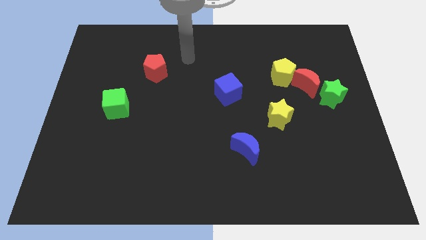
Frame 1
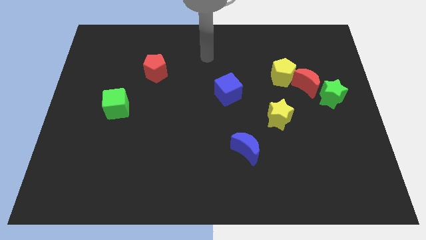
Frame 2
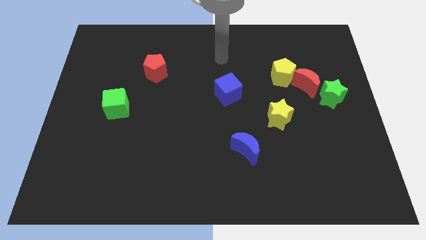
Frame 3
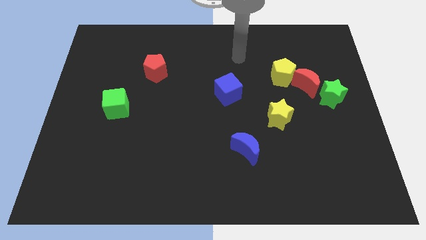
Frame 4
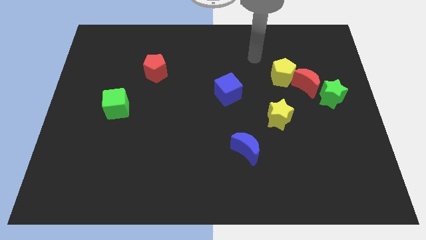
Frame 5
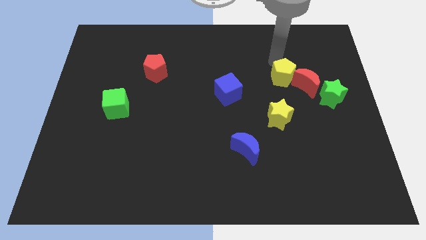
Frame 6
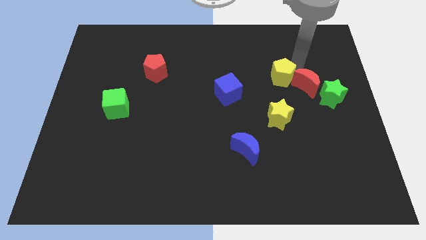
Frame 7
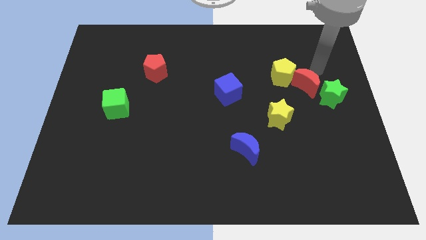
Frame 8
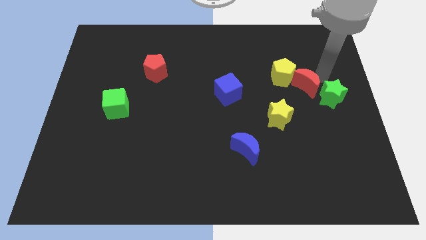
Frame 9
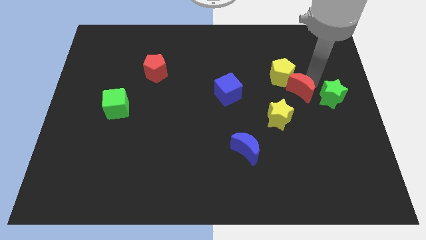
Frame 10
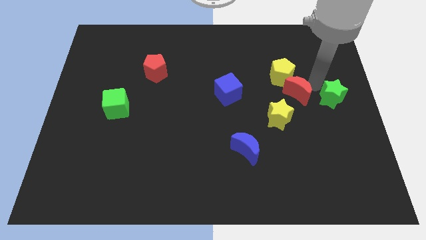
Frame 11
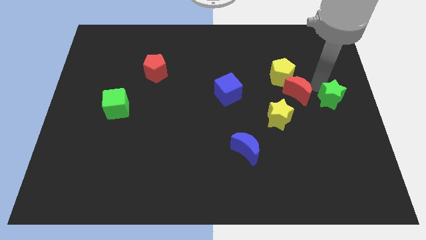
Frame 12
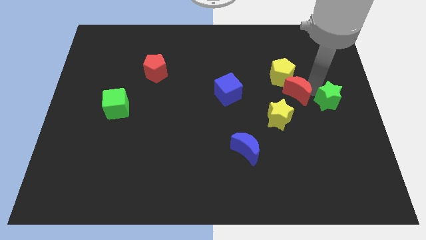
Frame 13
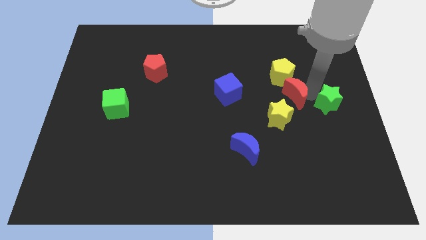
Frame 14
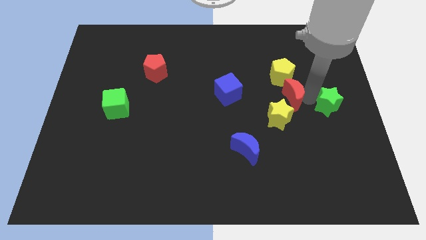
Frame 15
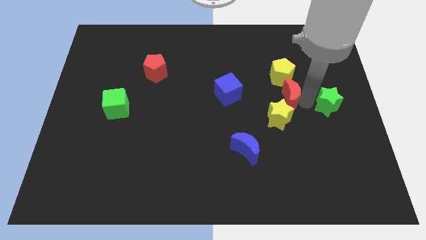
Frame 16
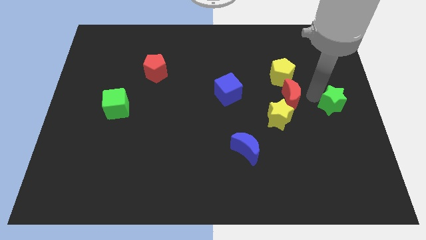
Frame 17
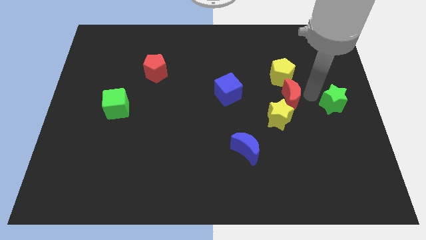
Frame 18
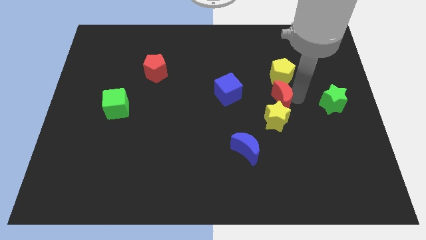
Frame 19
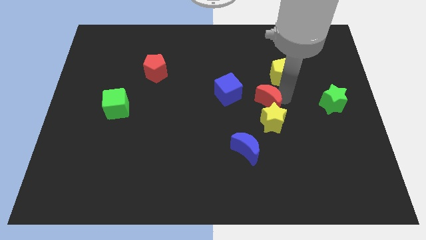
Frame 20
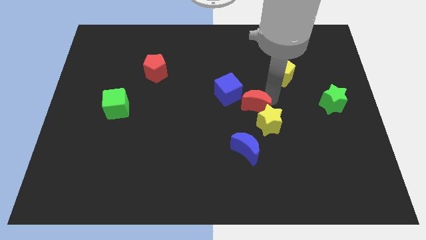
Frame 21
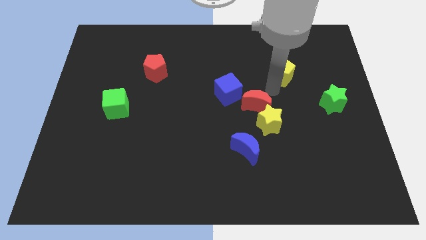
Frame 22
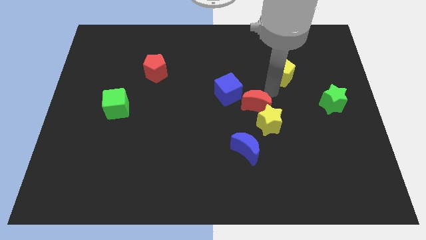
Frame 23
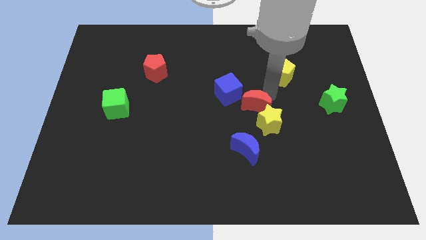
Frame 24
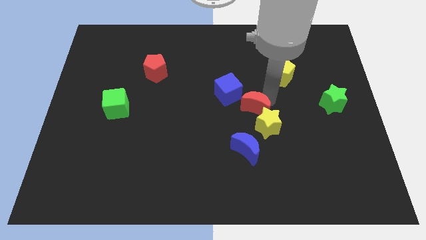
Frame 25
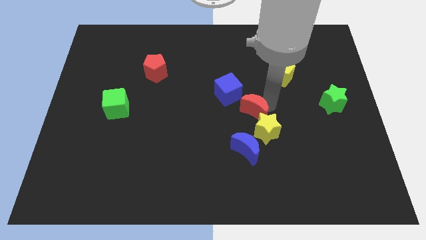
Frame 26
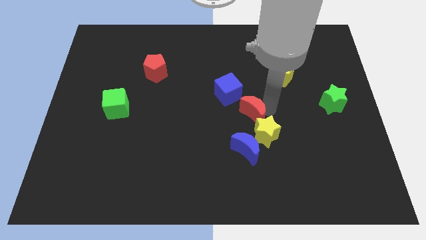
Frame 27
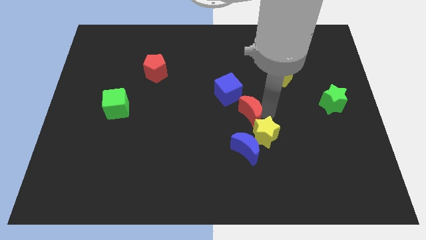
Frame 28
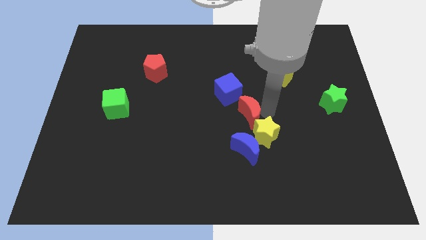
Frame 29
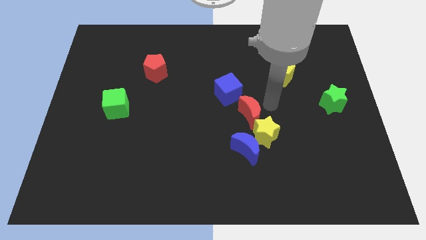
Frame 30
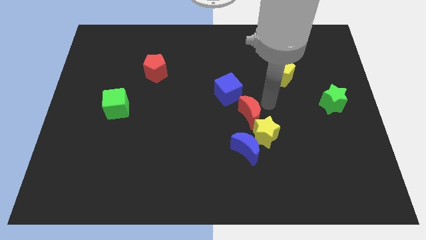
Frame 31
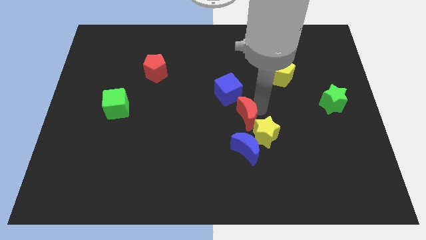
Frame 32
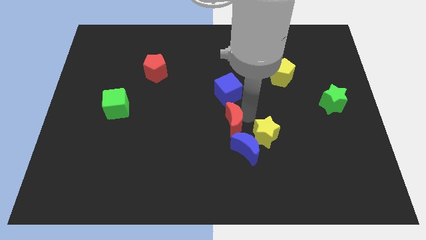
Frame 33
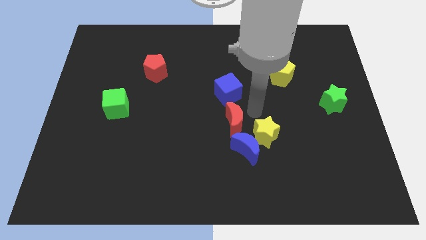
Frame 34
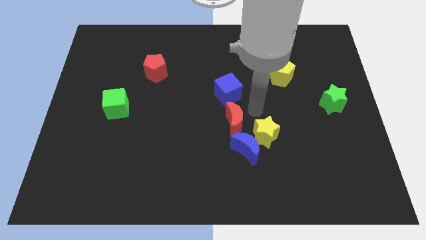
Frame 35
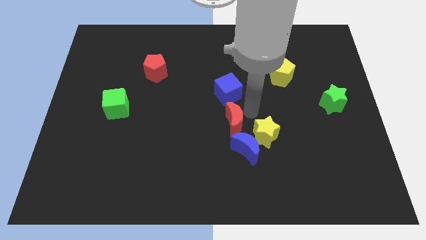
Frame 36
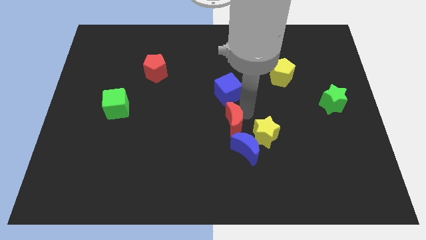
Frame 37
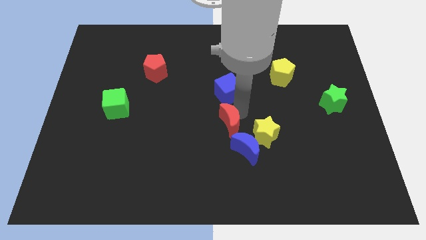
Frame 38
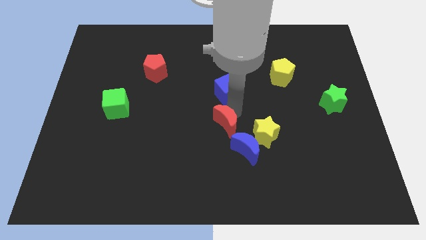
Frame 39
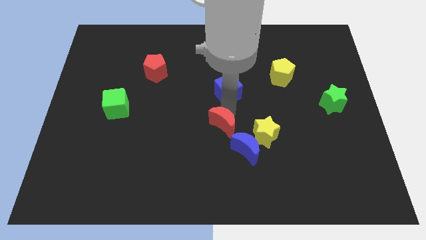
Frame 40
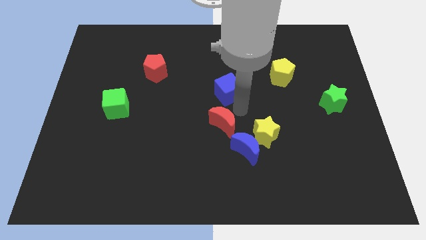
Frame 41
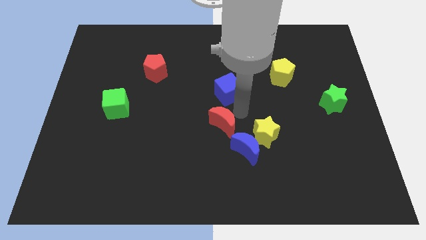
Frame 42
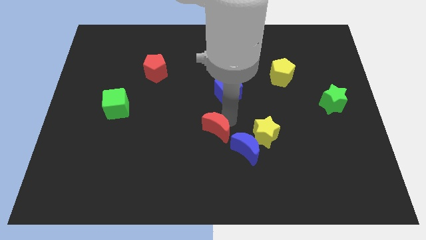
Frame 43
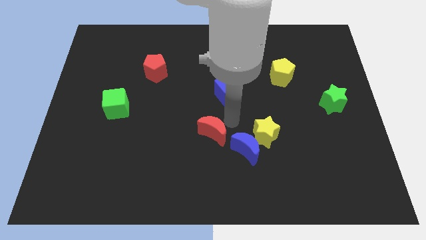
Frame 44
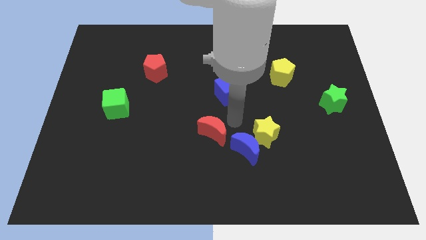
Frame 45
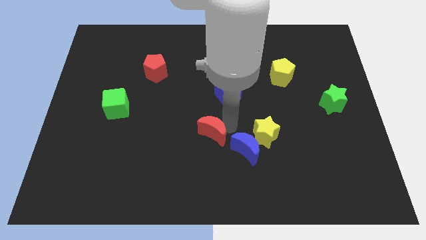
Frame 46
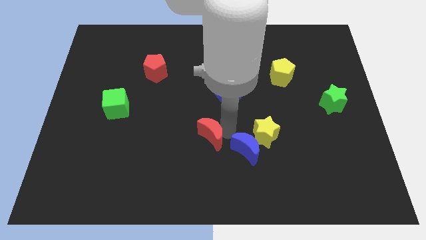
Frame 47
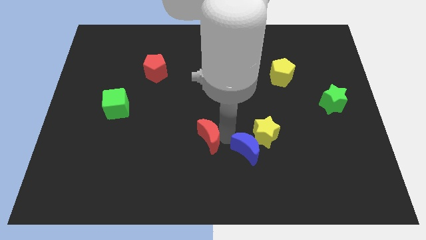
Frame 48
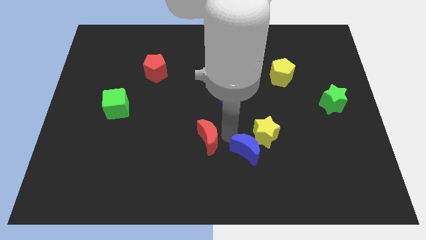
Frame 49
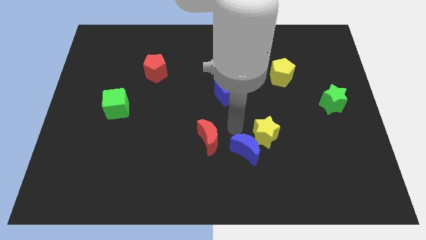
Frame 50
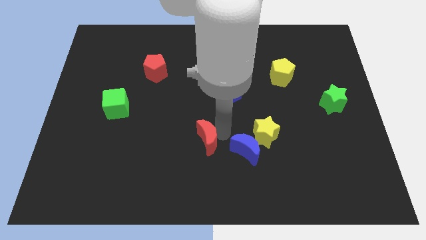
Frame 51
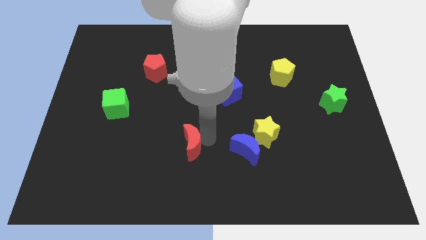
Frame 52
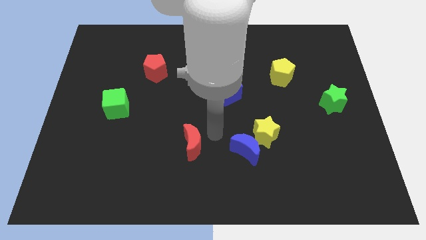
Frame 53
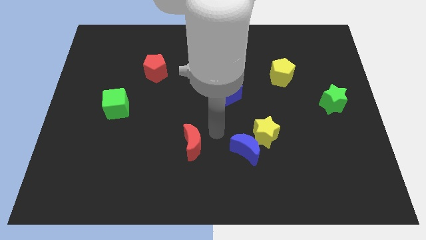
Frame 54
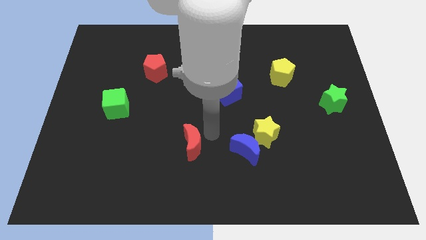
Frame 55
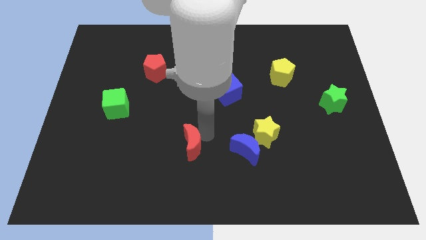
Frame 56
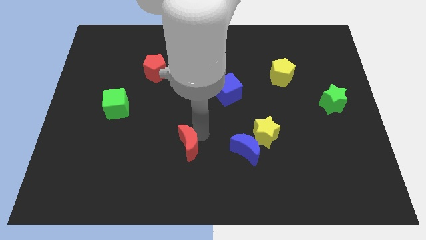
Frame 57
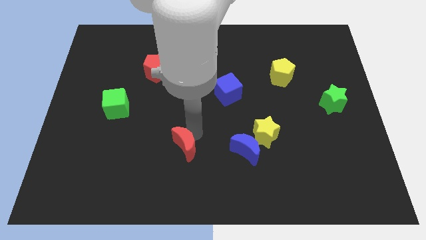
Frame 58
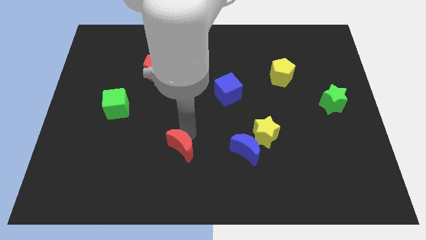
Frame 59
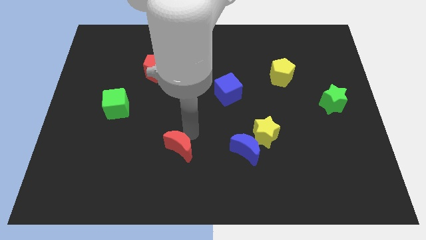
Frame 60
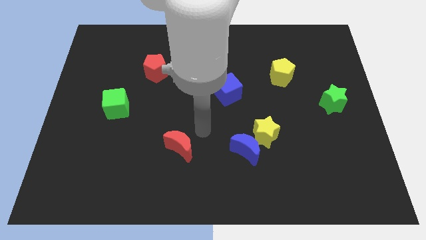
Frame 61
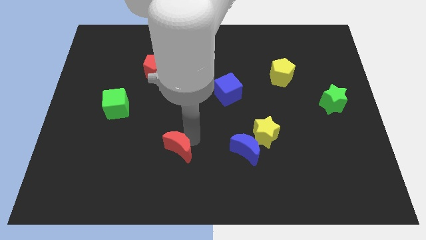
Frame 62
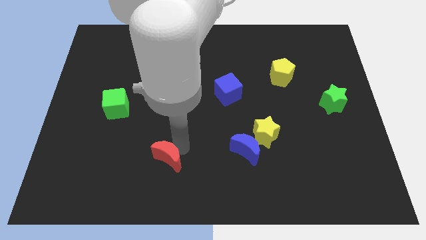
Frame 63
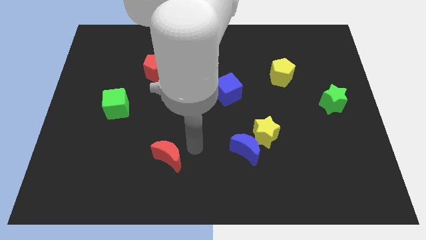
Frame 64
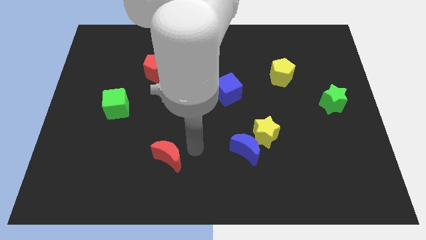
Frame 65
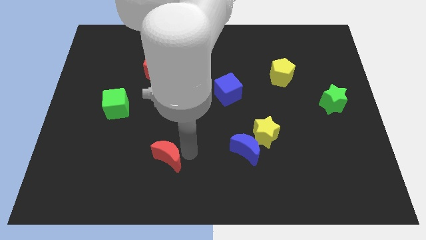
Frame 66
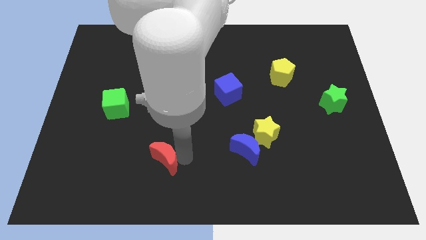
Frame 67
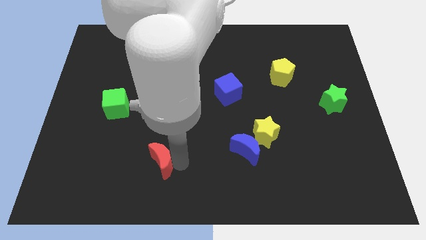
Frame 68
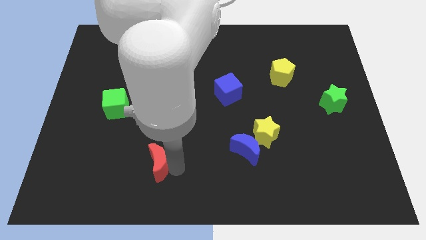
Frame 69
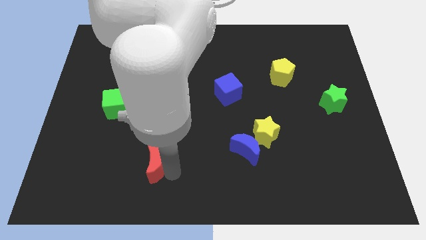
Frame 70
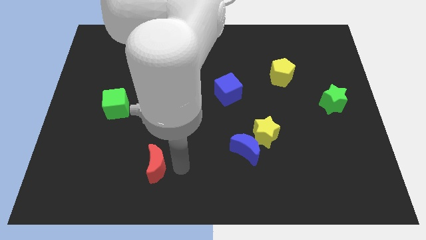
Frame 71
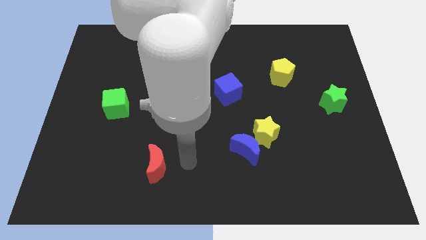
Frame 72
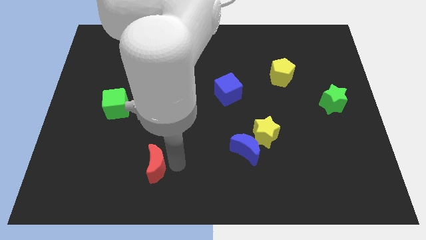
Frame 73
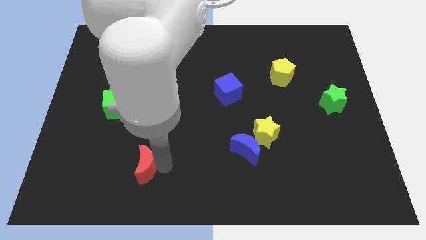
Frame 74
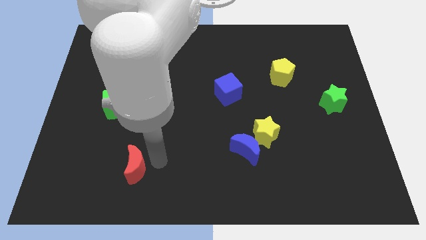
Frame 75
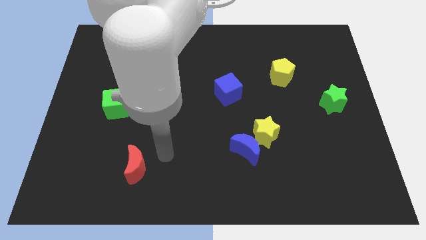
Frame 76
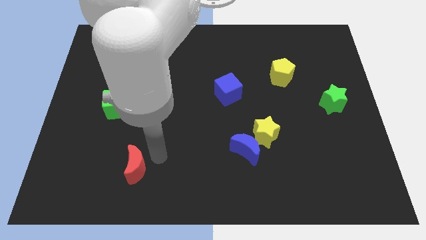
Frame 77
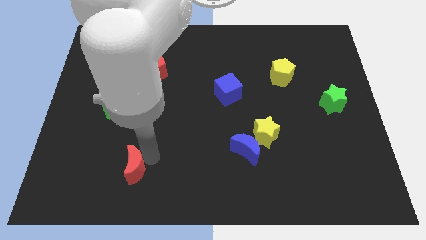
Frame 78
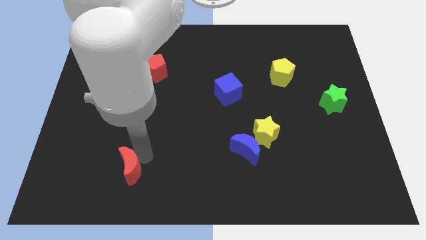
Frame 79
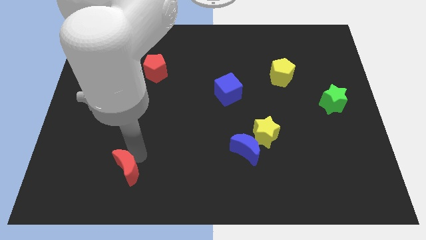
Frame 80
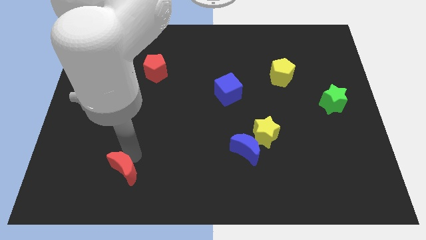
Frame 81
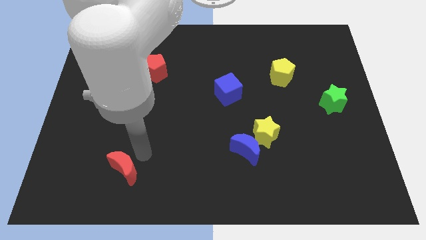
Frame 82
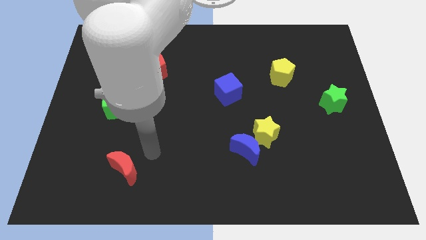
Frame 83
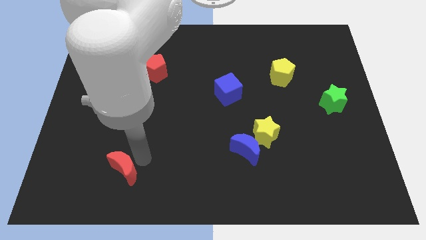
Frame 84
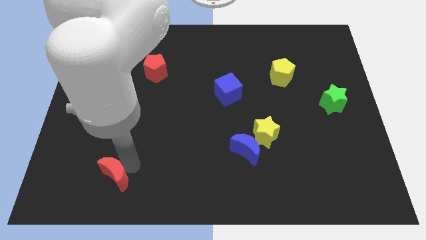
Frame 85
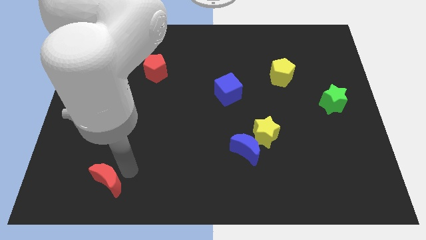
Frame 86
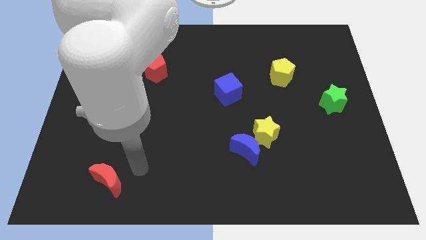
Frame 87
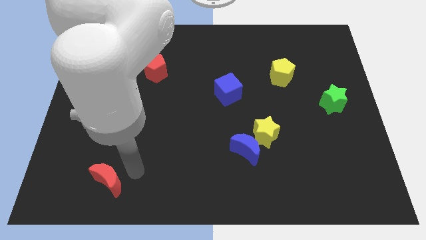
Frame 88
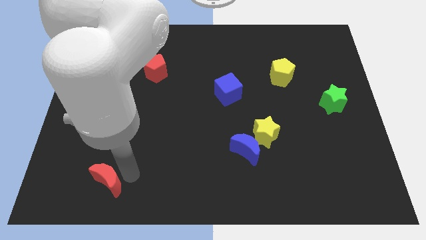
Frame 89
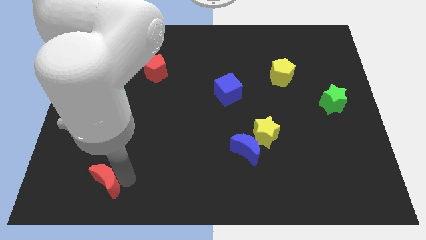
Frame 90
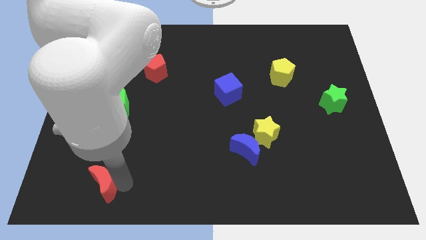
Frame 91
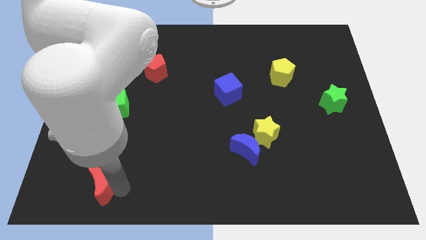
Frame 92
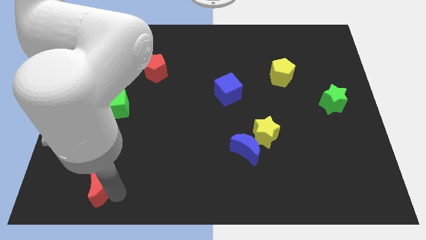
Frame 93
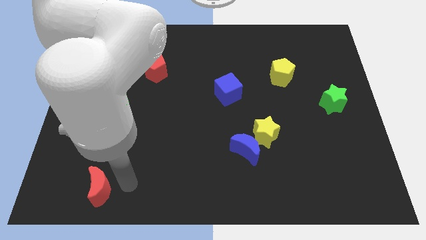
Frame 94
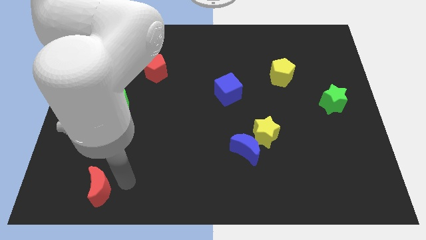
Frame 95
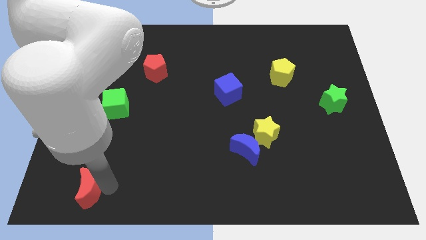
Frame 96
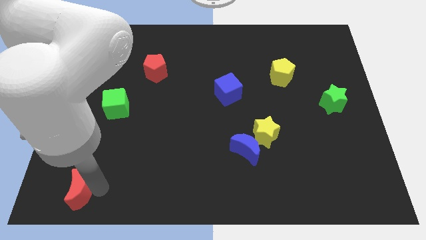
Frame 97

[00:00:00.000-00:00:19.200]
put the red moon to the bottom left of the board
